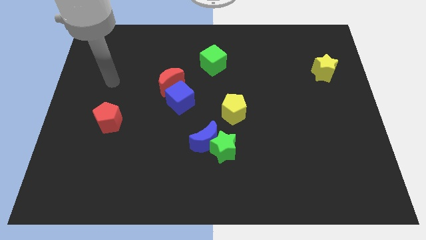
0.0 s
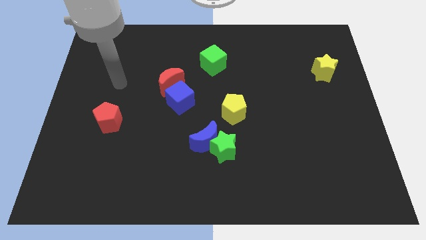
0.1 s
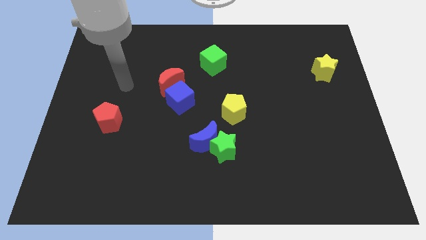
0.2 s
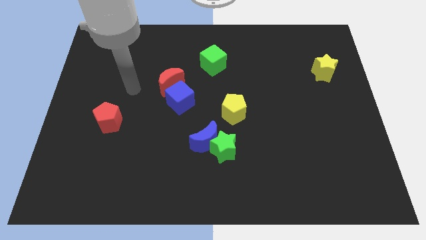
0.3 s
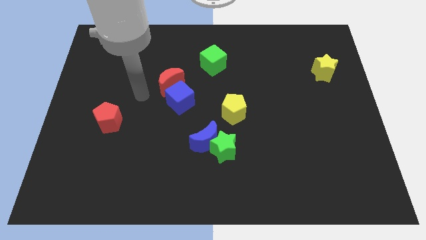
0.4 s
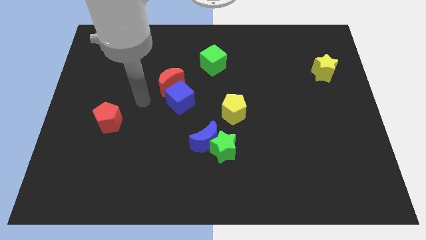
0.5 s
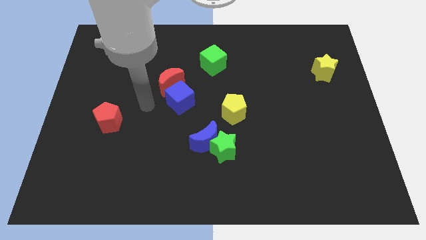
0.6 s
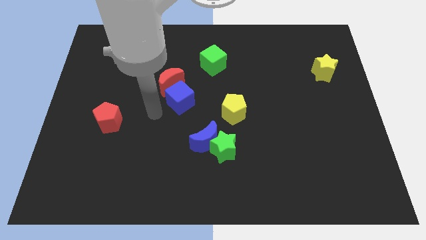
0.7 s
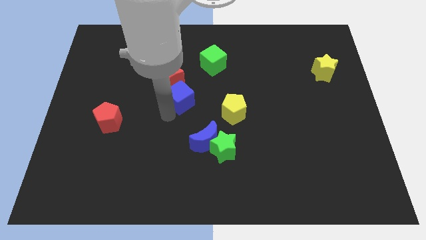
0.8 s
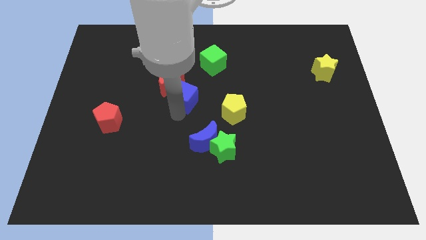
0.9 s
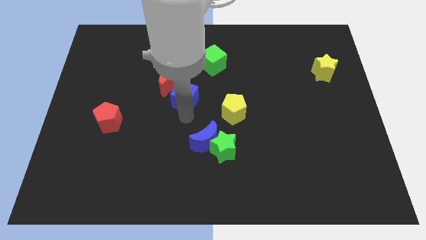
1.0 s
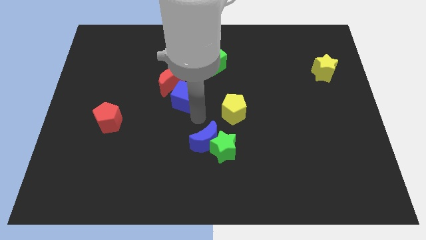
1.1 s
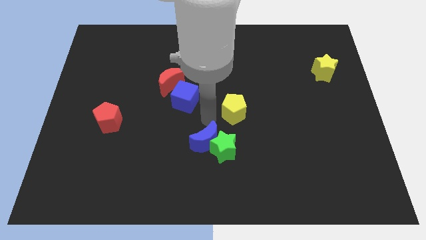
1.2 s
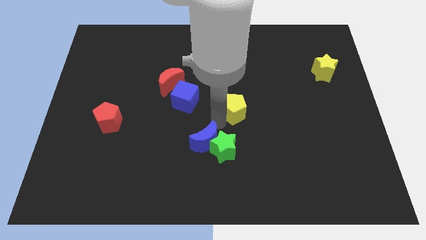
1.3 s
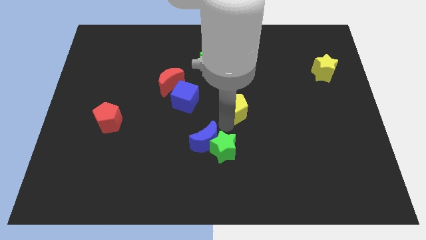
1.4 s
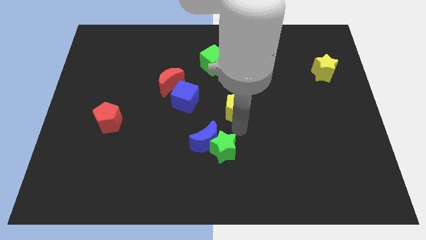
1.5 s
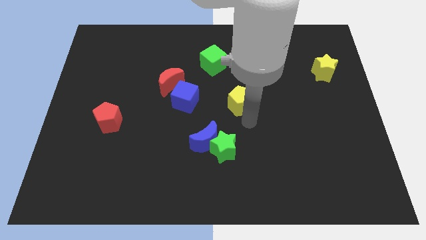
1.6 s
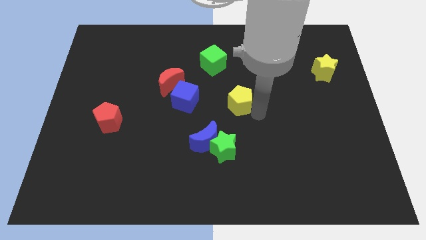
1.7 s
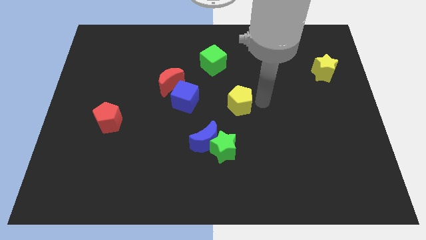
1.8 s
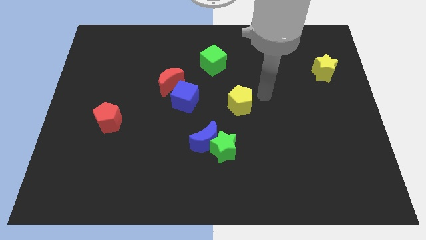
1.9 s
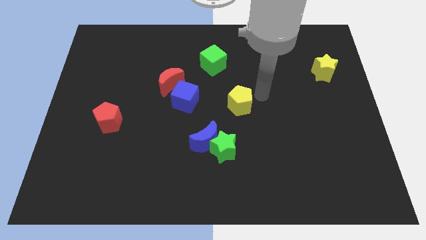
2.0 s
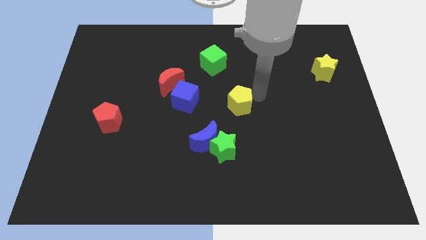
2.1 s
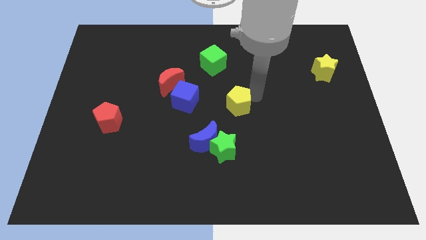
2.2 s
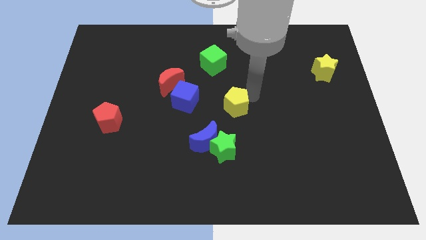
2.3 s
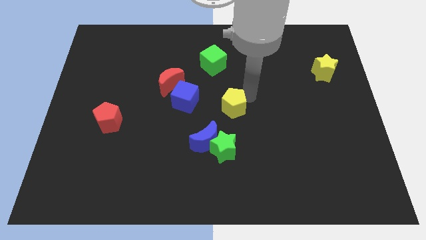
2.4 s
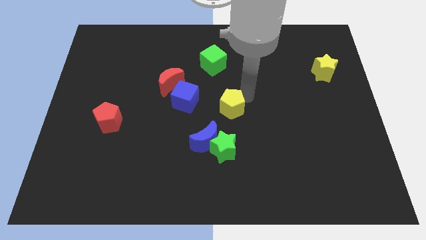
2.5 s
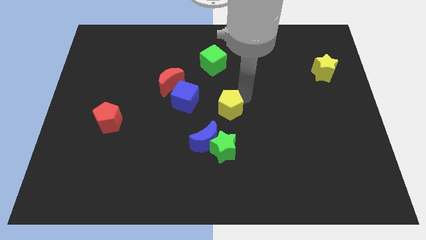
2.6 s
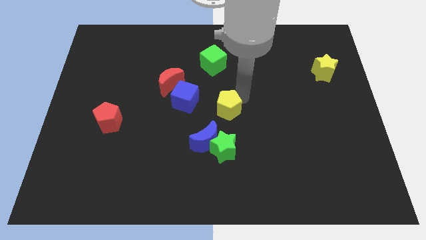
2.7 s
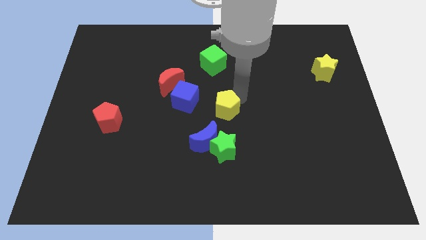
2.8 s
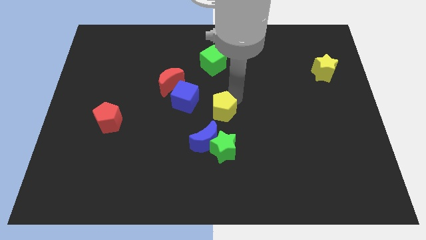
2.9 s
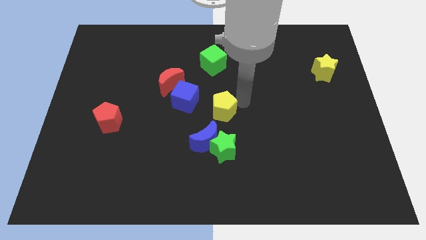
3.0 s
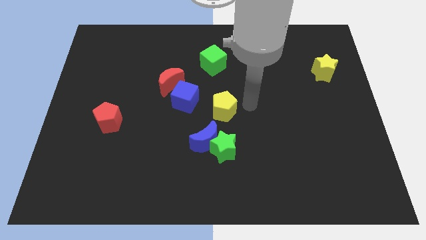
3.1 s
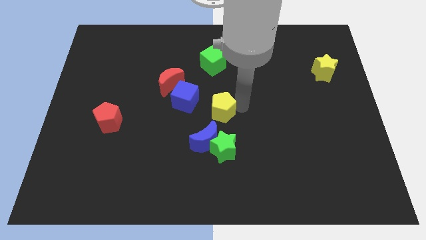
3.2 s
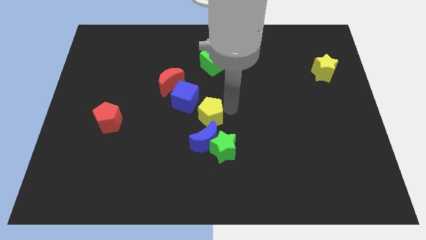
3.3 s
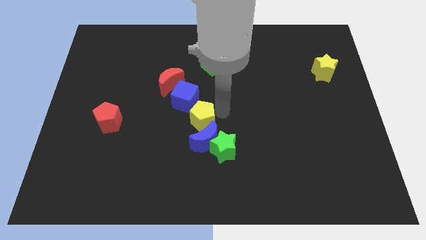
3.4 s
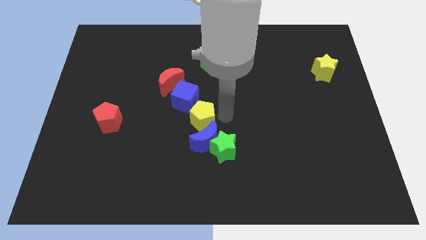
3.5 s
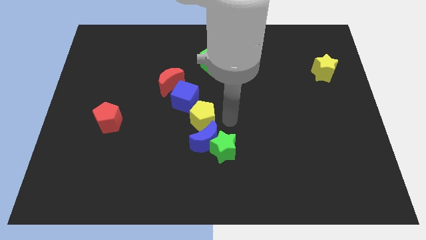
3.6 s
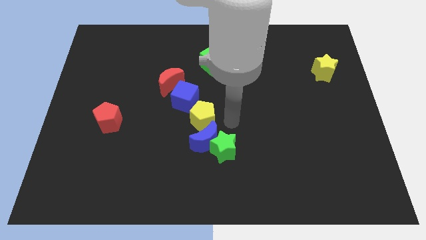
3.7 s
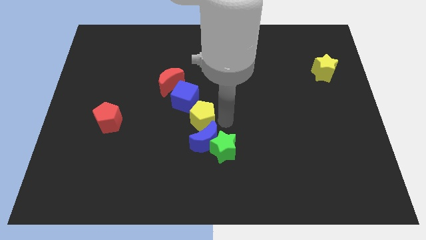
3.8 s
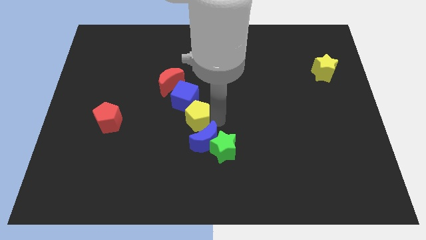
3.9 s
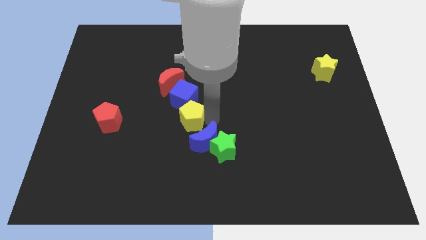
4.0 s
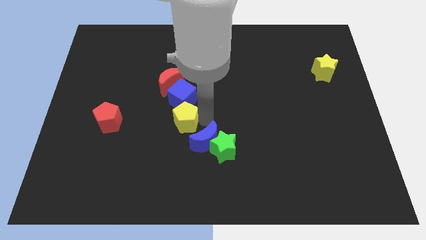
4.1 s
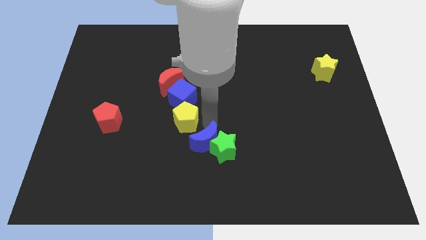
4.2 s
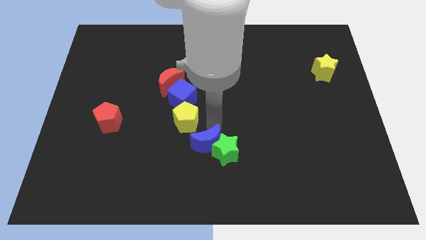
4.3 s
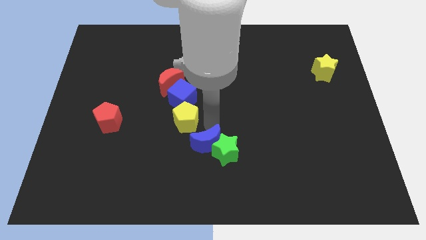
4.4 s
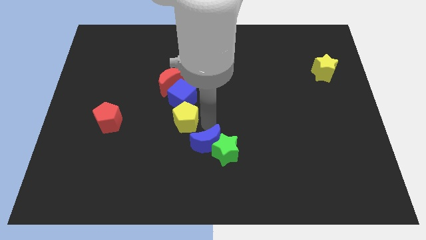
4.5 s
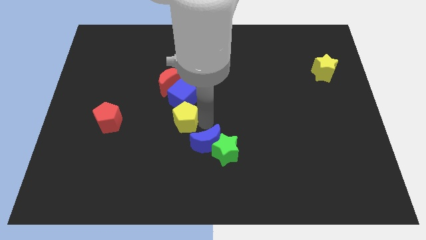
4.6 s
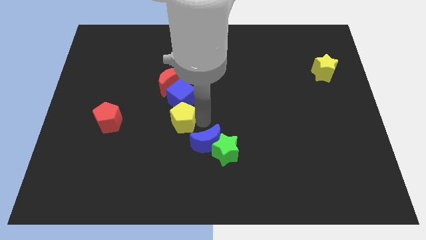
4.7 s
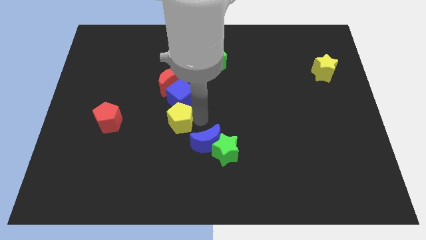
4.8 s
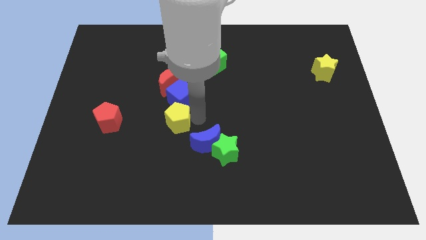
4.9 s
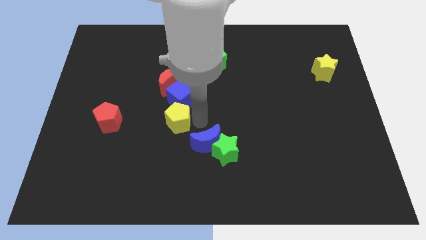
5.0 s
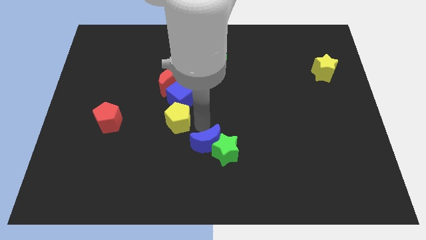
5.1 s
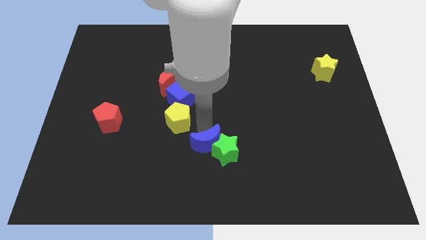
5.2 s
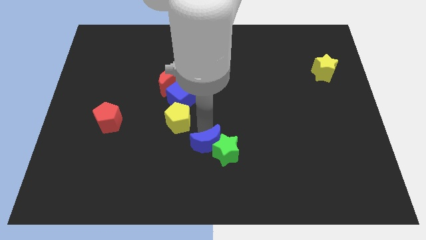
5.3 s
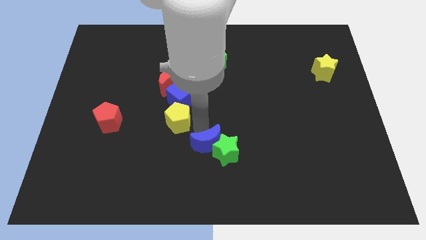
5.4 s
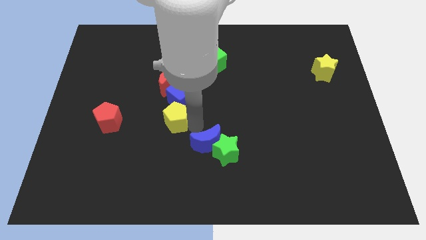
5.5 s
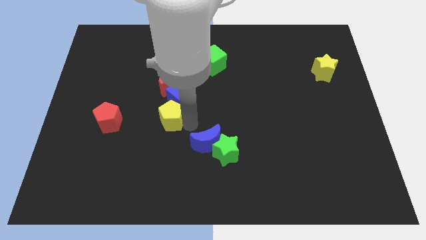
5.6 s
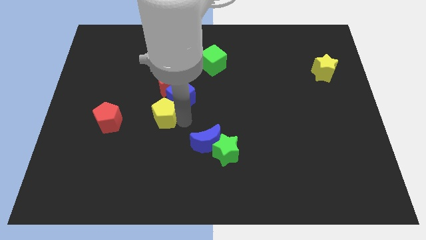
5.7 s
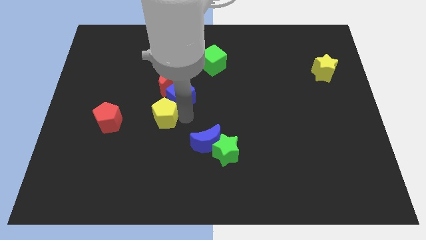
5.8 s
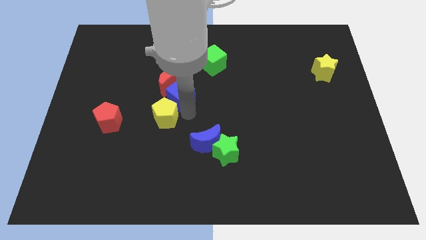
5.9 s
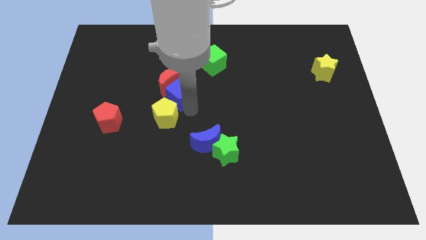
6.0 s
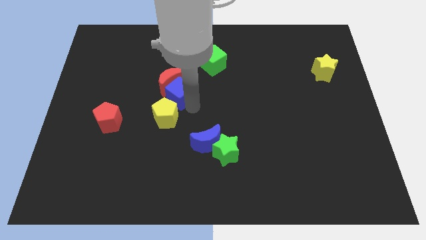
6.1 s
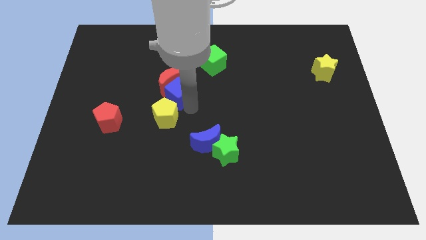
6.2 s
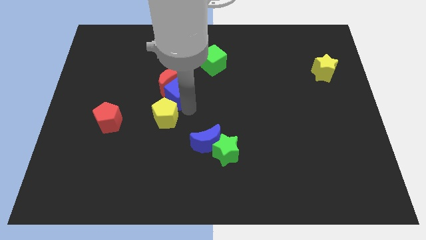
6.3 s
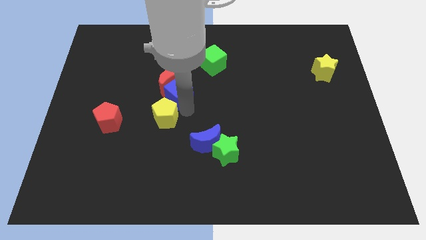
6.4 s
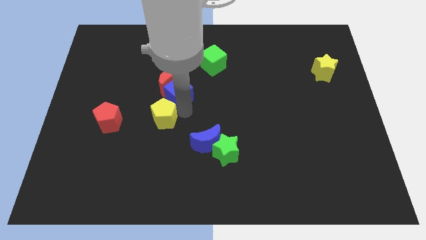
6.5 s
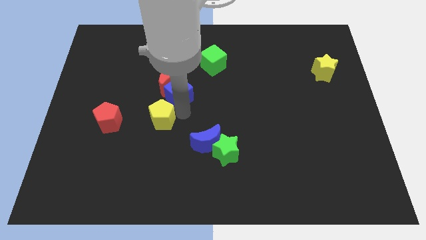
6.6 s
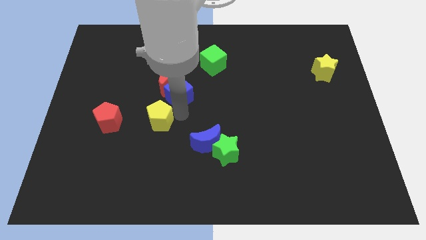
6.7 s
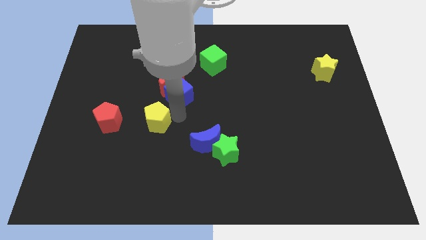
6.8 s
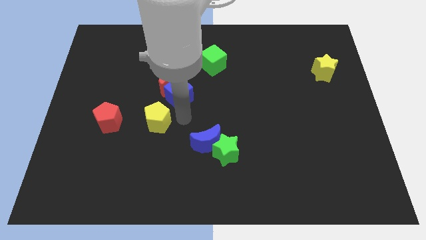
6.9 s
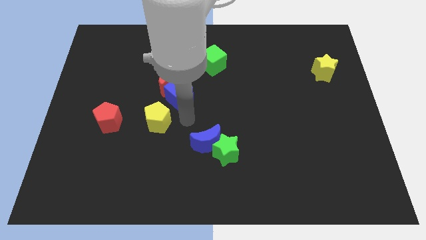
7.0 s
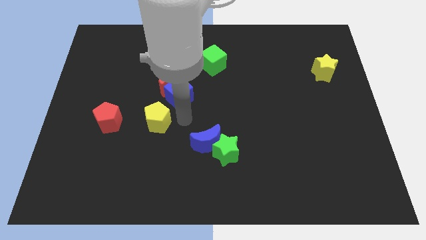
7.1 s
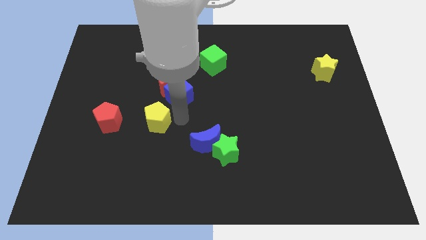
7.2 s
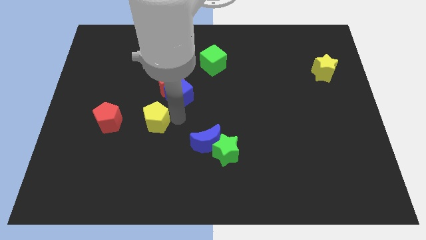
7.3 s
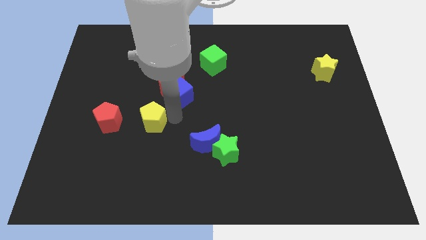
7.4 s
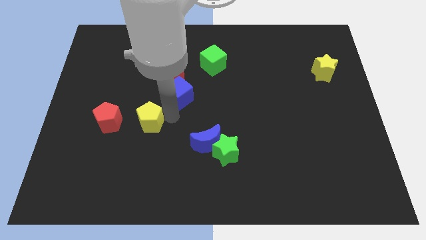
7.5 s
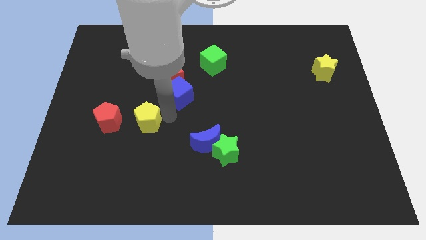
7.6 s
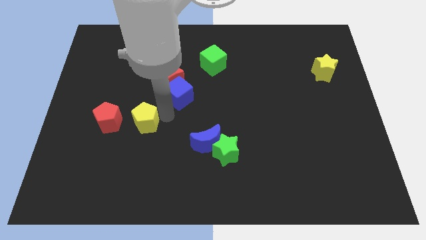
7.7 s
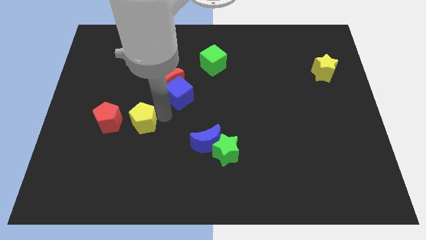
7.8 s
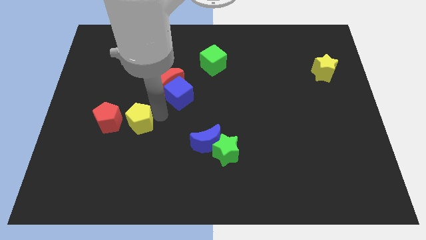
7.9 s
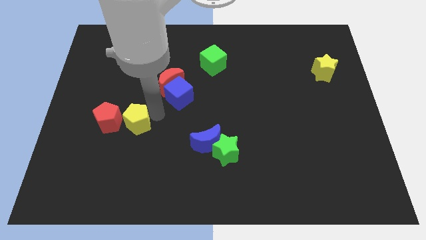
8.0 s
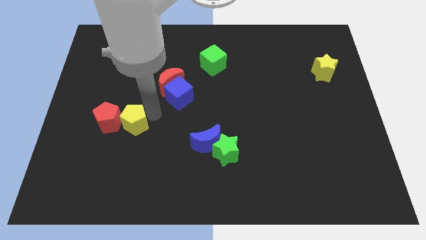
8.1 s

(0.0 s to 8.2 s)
slide the yellow pentagon next to the red pentagon
